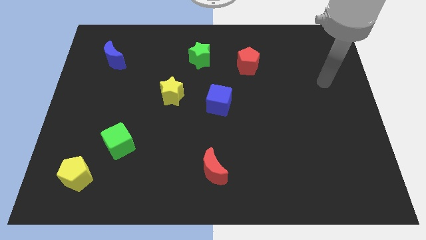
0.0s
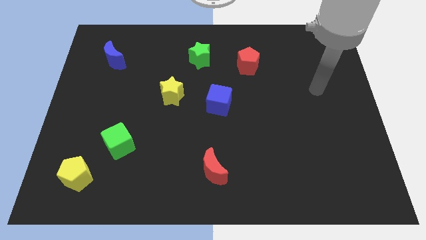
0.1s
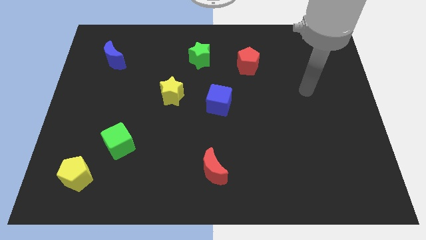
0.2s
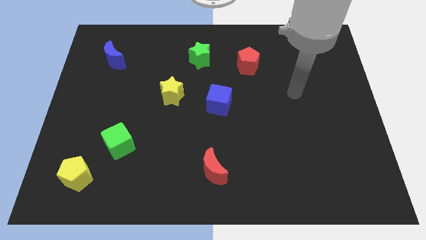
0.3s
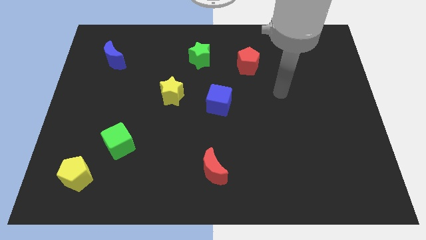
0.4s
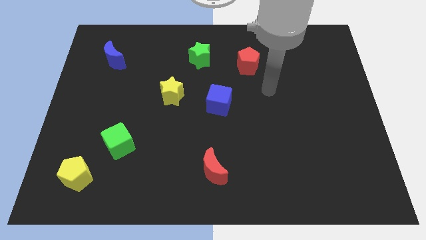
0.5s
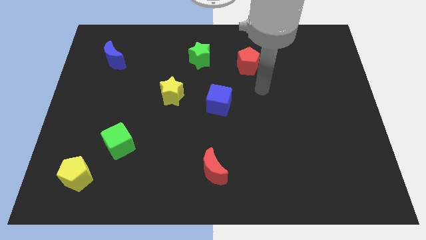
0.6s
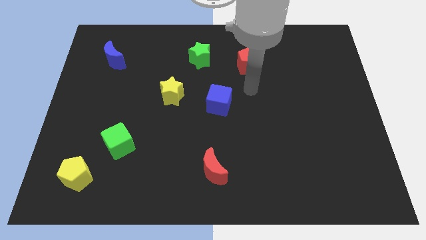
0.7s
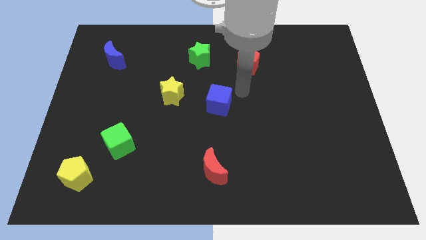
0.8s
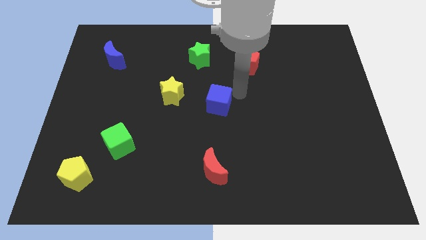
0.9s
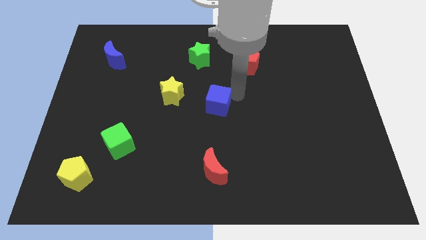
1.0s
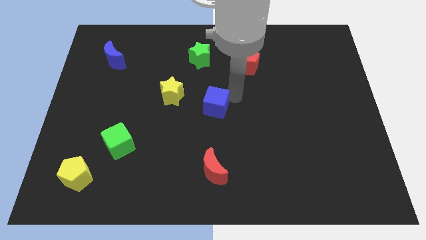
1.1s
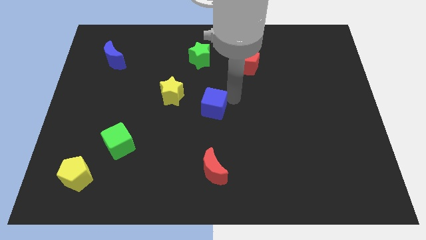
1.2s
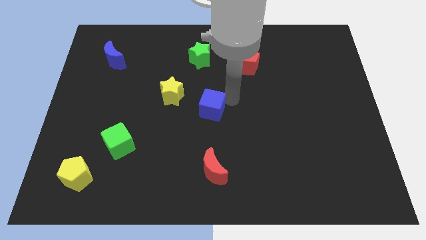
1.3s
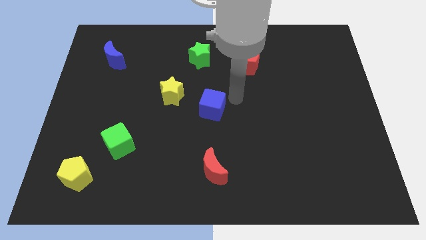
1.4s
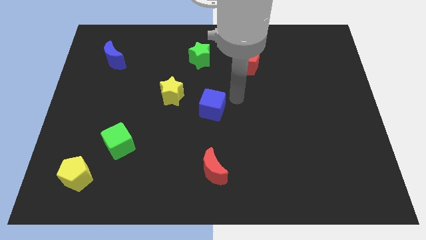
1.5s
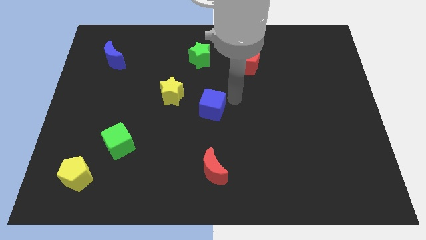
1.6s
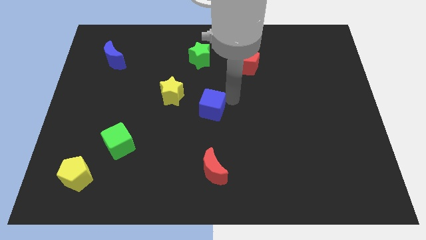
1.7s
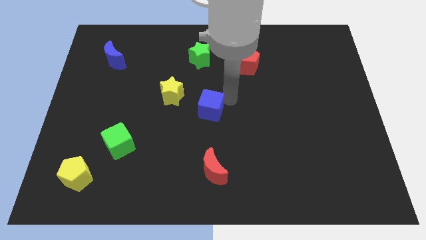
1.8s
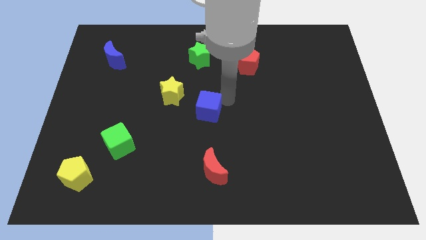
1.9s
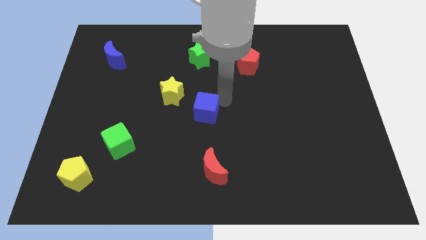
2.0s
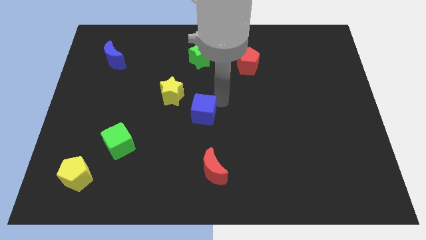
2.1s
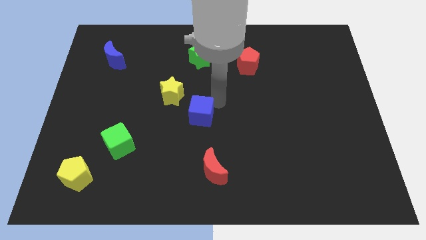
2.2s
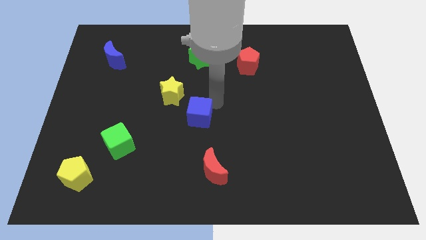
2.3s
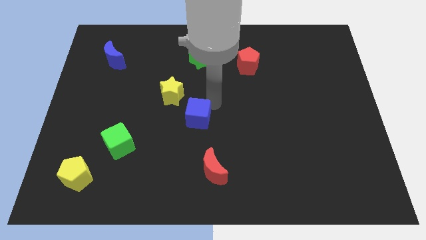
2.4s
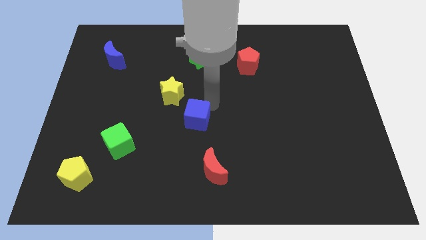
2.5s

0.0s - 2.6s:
slightly move the blue cube down and to the left diagonally

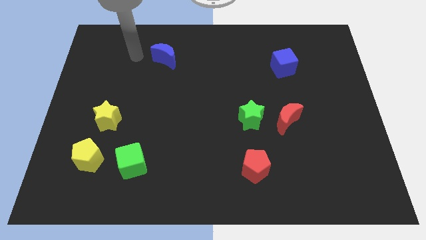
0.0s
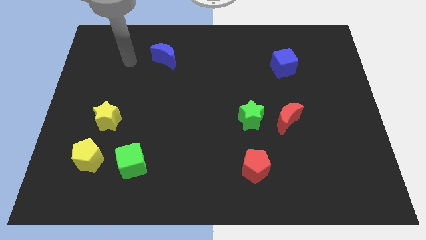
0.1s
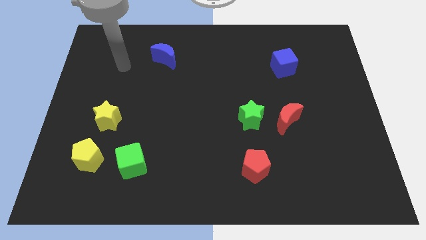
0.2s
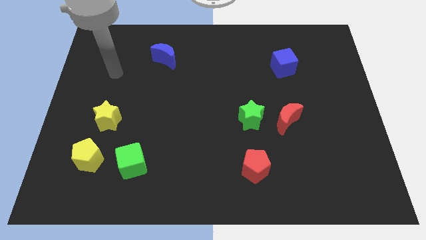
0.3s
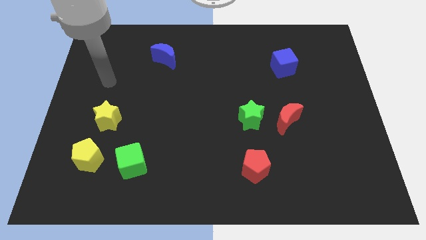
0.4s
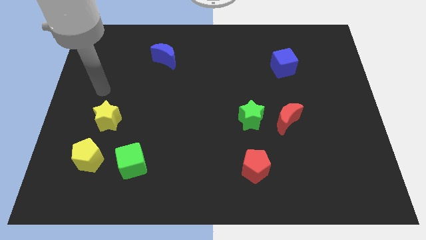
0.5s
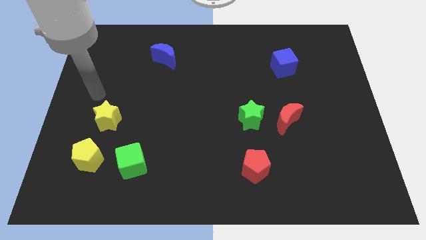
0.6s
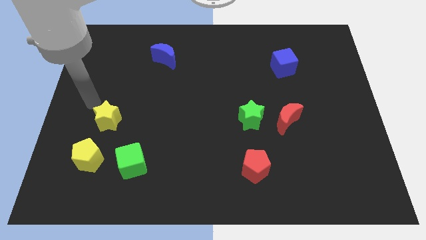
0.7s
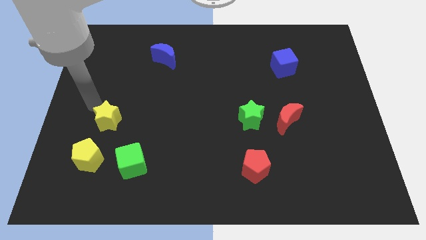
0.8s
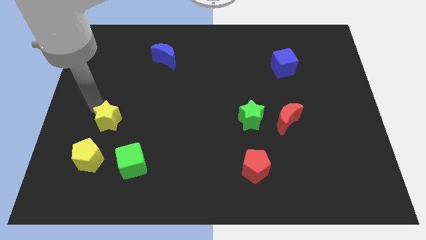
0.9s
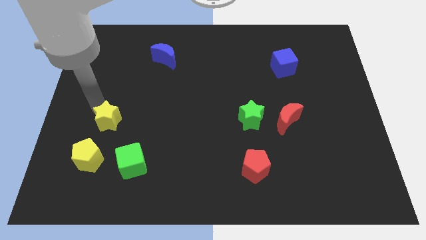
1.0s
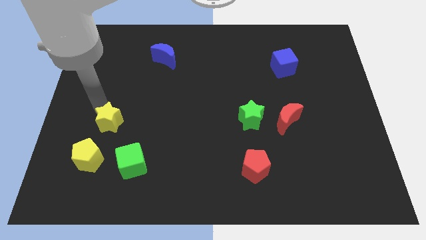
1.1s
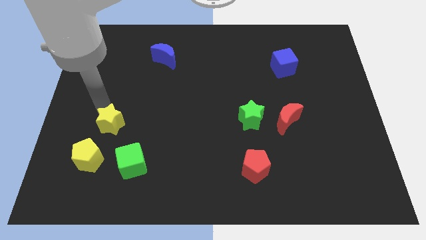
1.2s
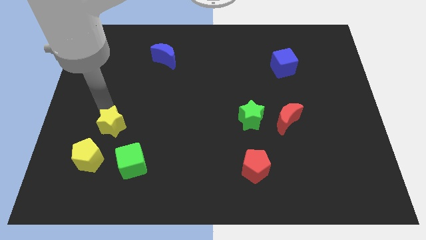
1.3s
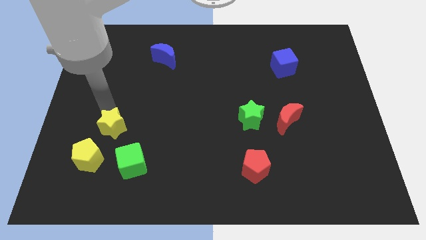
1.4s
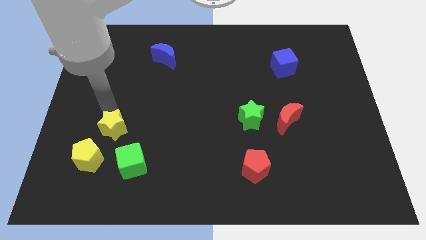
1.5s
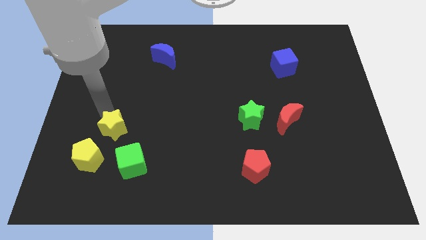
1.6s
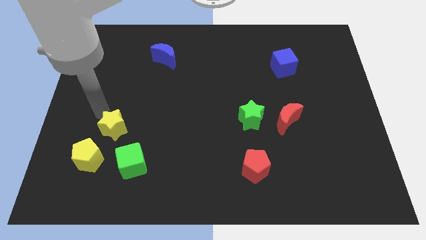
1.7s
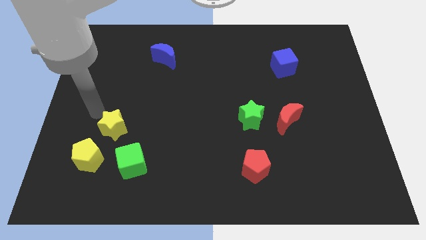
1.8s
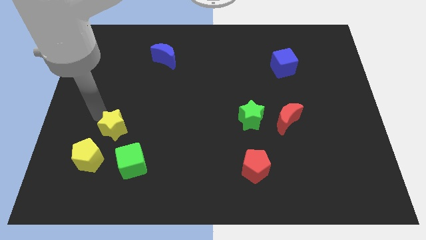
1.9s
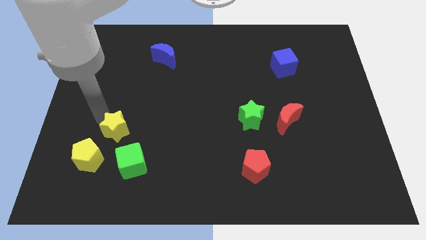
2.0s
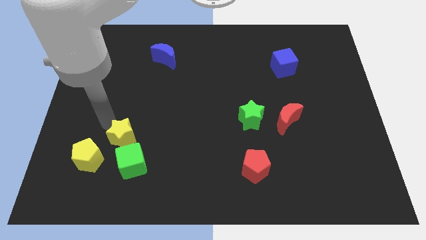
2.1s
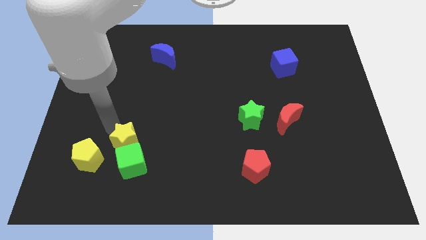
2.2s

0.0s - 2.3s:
push the yellow star a little bit downwards and to the right diagonally

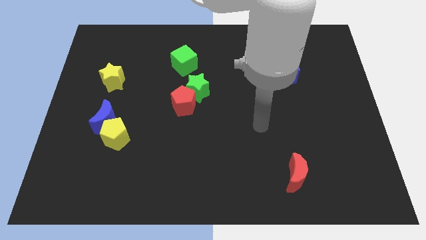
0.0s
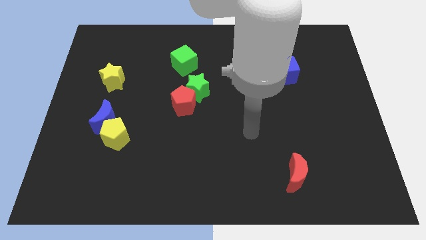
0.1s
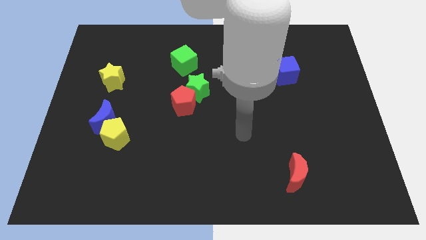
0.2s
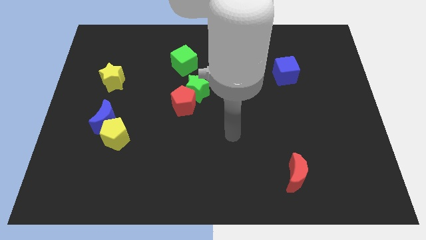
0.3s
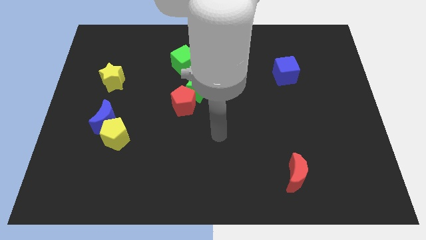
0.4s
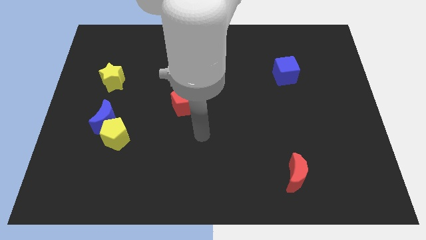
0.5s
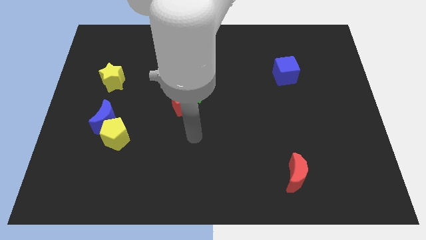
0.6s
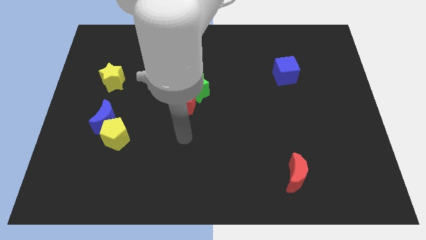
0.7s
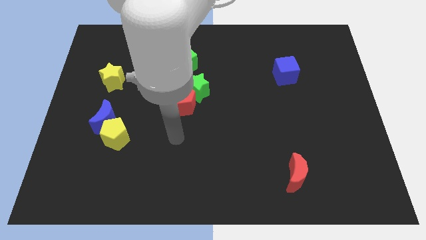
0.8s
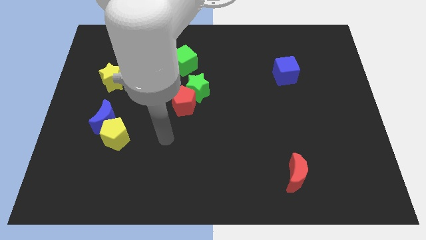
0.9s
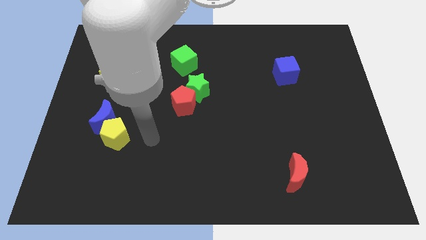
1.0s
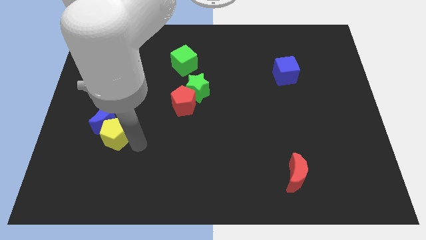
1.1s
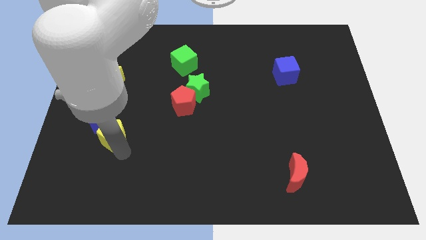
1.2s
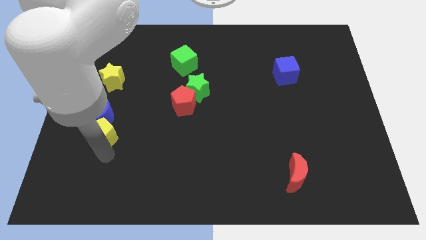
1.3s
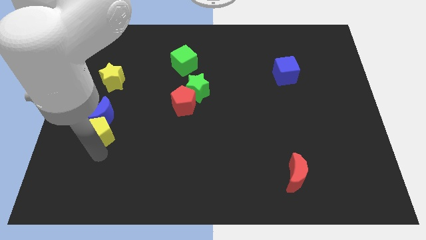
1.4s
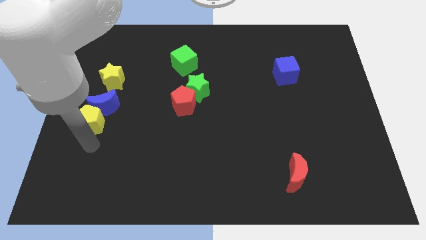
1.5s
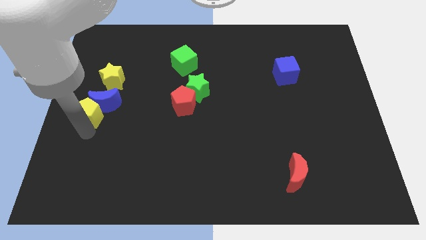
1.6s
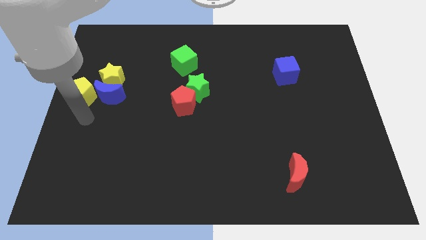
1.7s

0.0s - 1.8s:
slide the blue moon up slightly

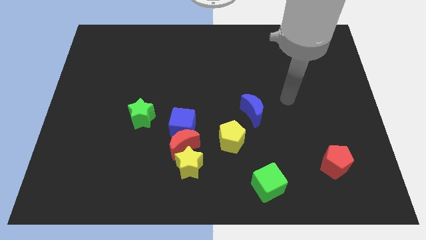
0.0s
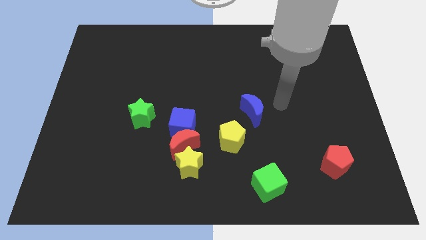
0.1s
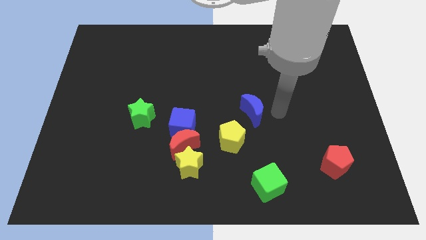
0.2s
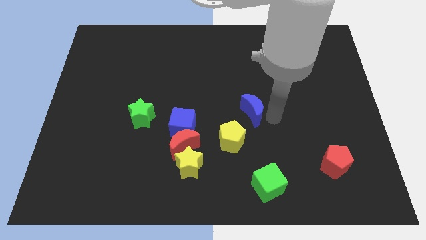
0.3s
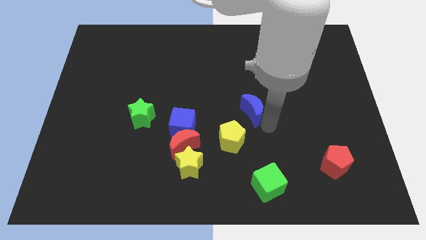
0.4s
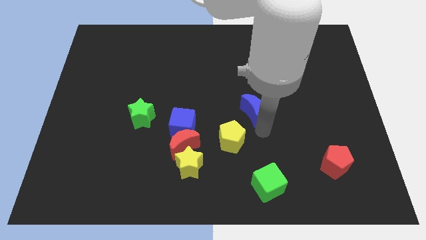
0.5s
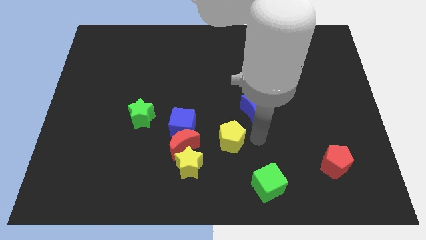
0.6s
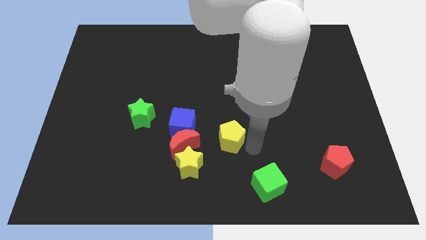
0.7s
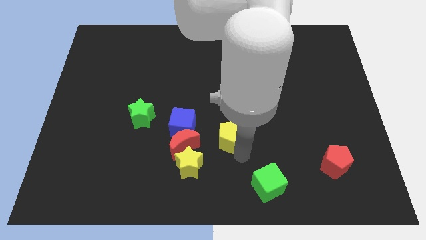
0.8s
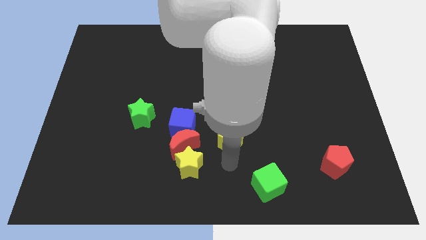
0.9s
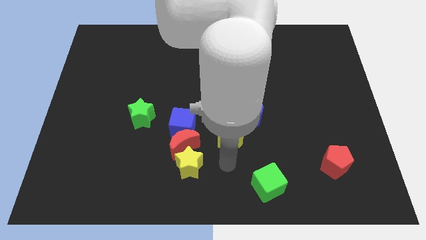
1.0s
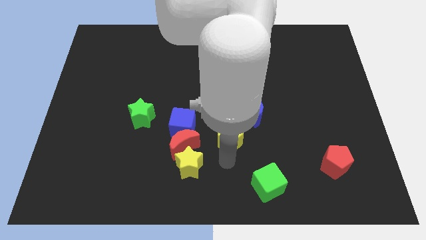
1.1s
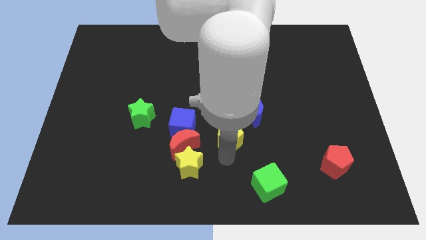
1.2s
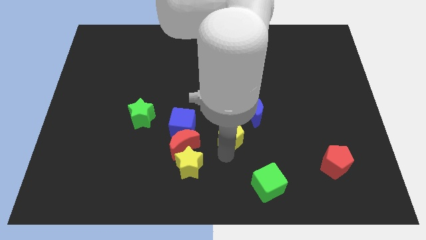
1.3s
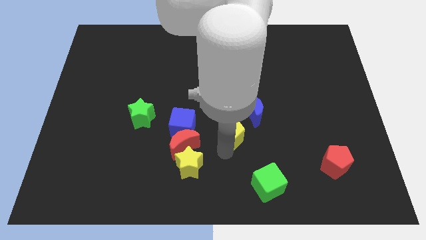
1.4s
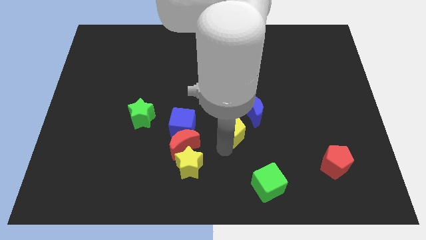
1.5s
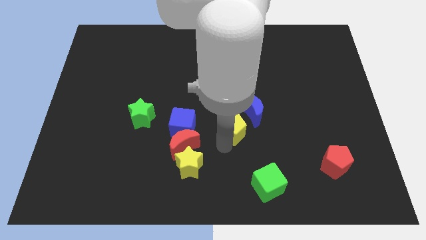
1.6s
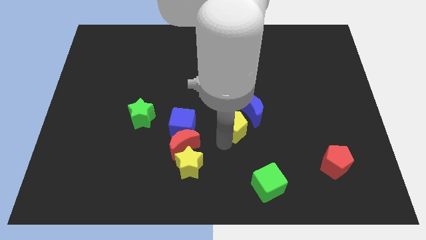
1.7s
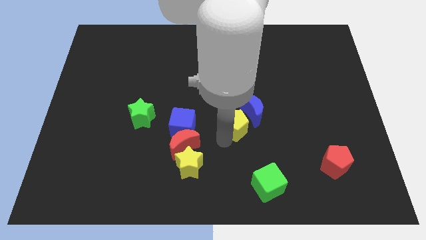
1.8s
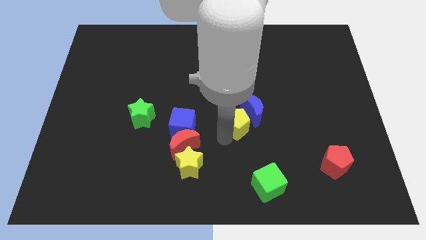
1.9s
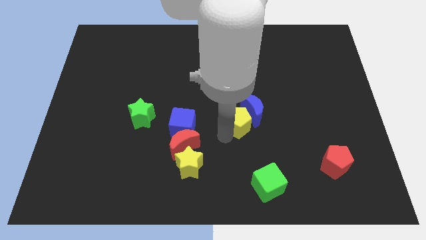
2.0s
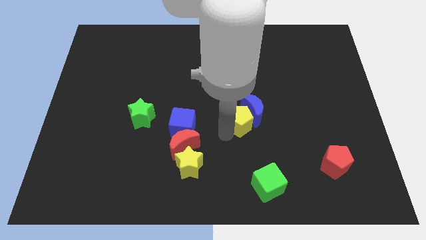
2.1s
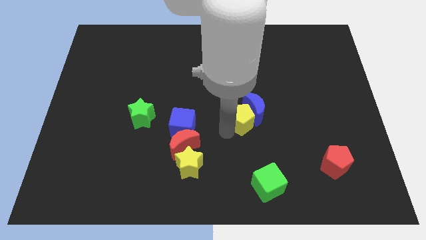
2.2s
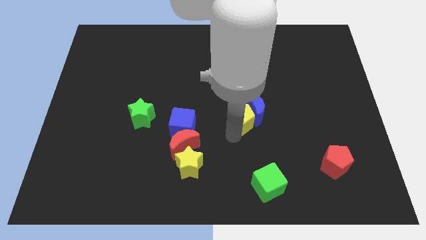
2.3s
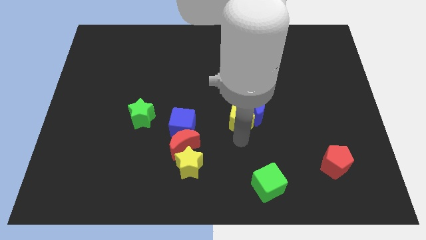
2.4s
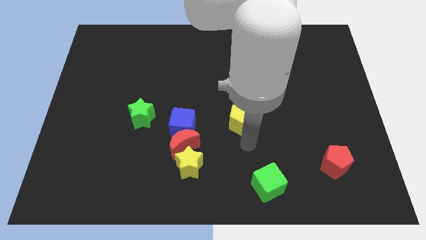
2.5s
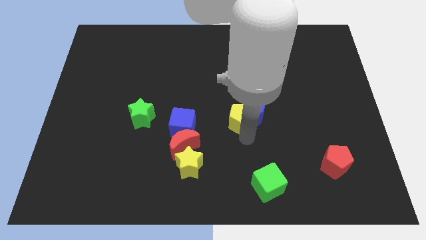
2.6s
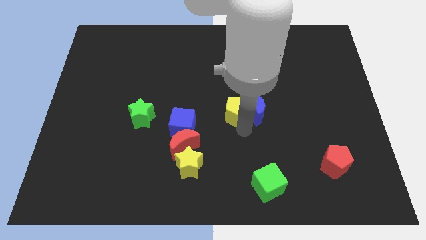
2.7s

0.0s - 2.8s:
move the yellow pentagon upwards a bit
